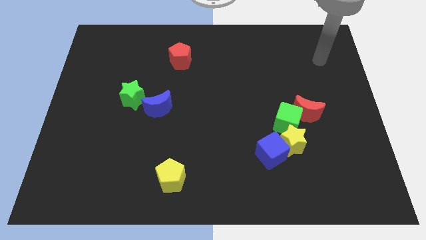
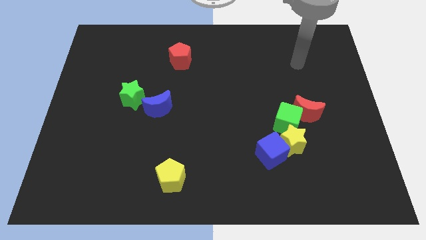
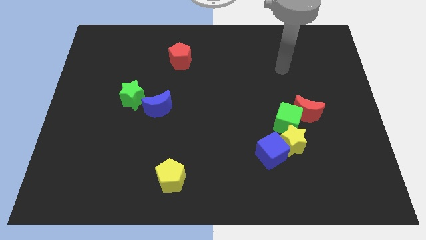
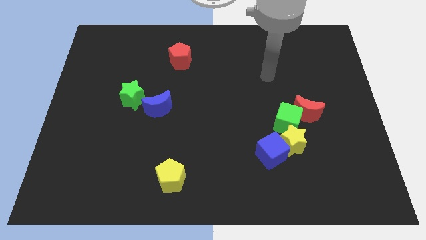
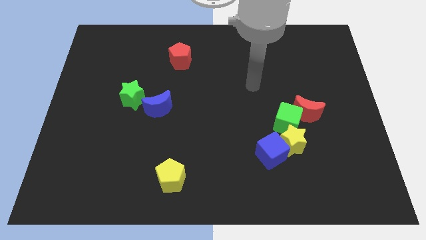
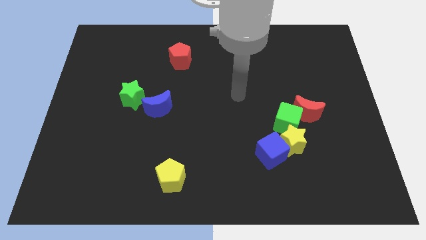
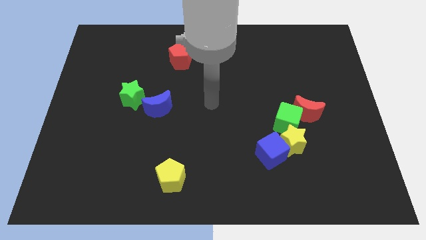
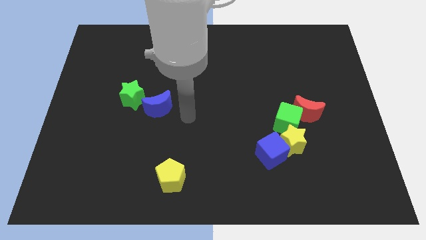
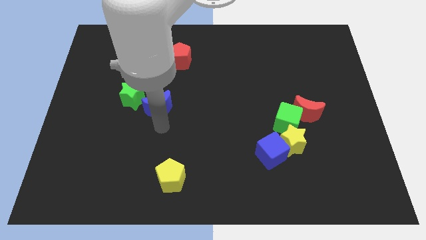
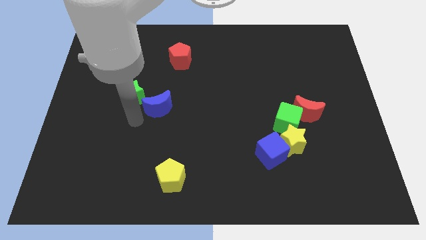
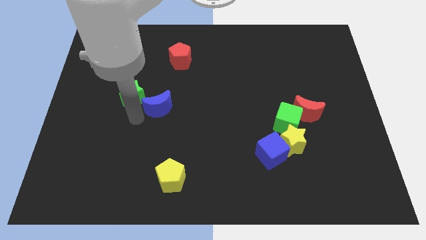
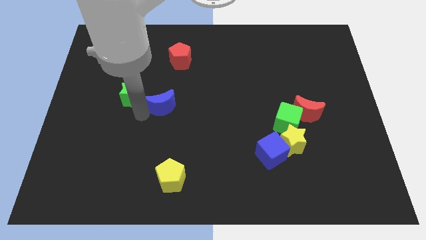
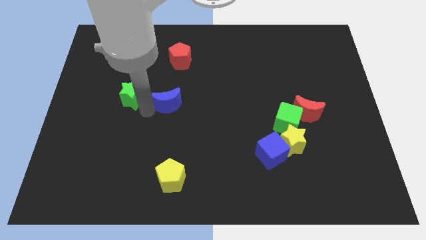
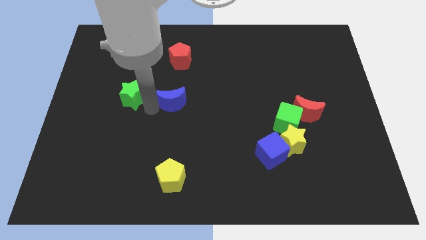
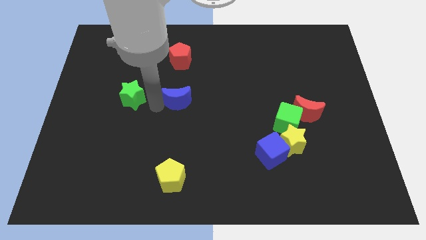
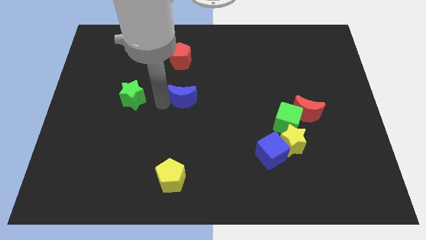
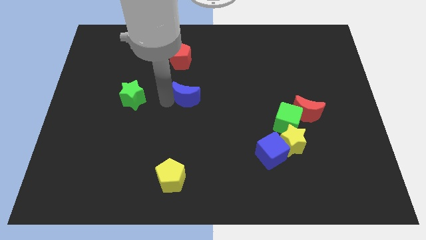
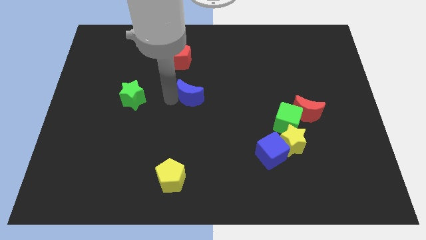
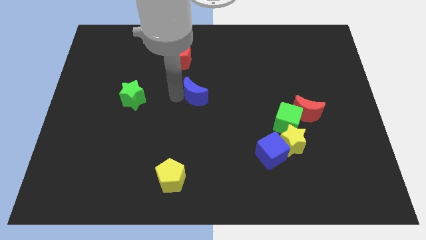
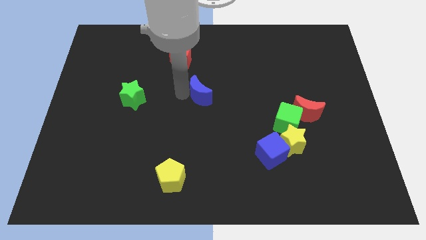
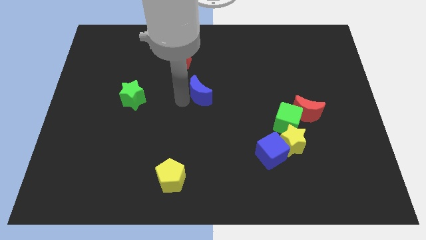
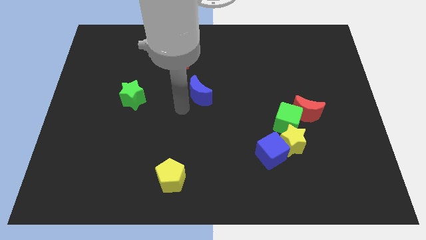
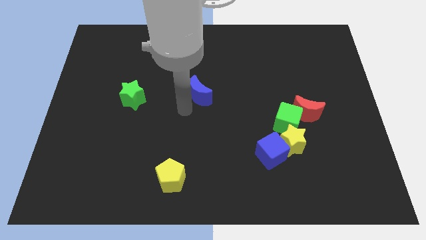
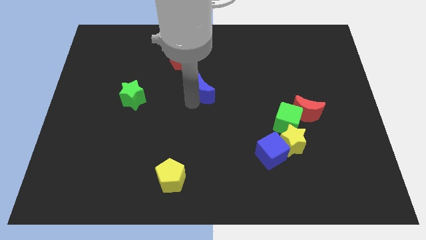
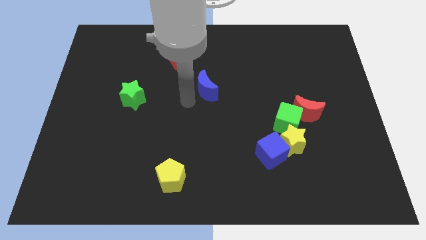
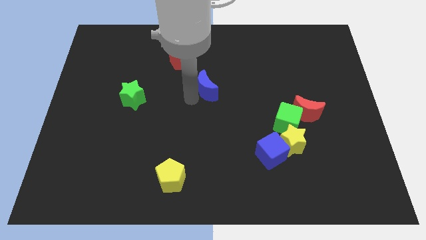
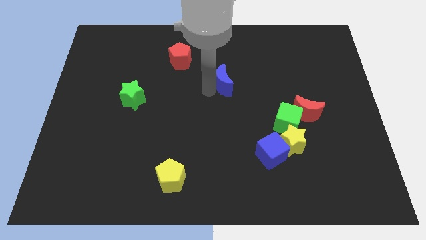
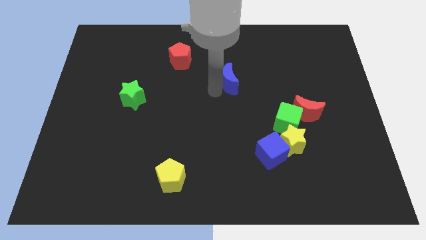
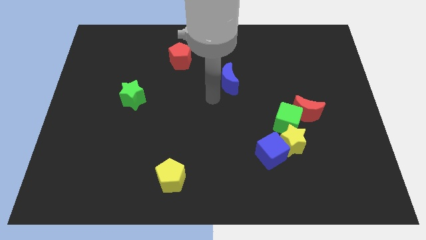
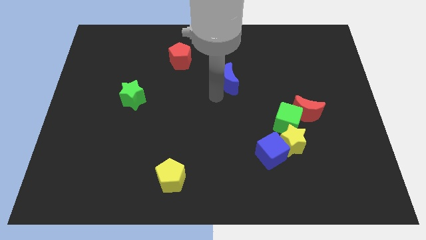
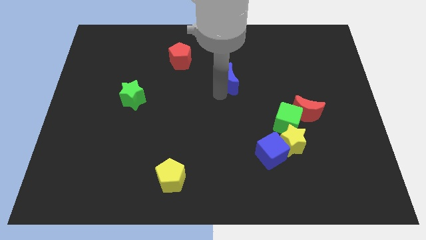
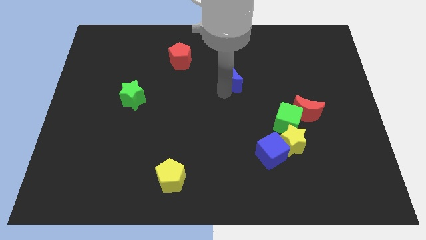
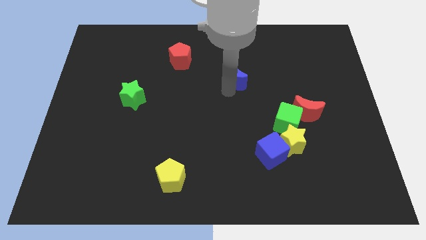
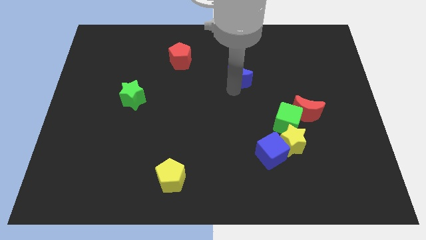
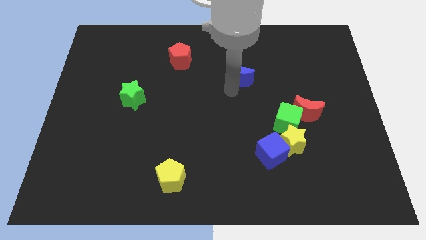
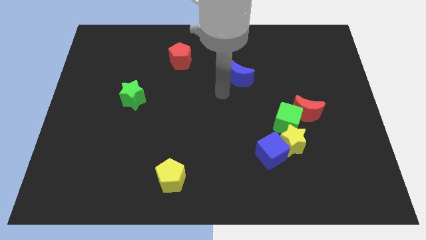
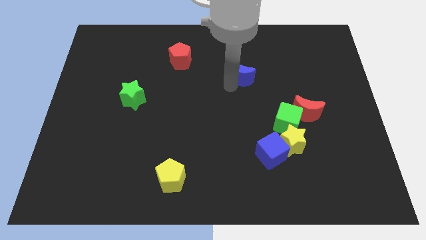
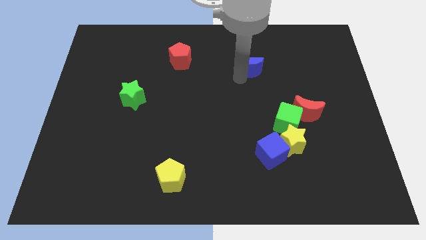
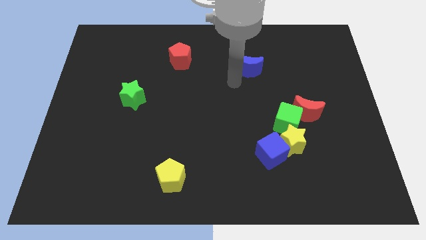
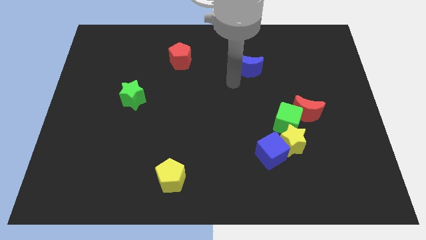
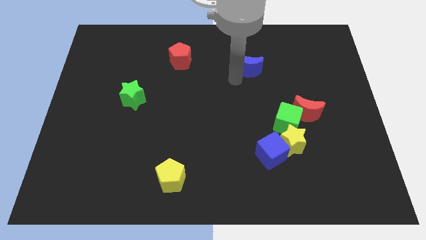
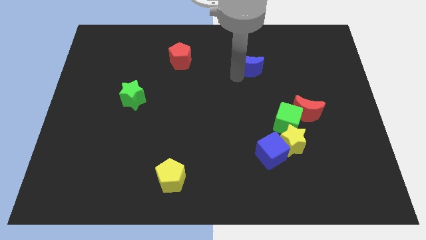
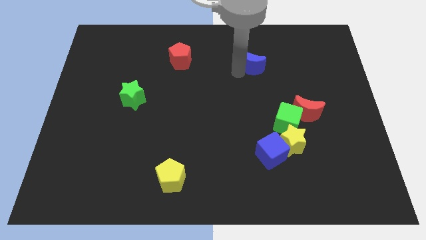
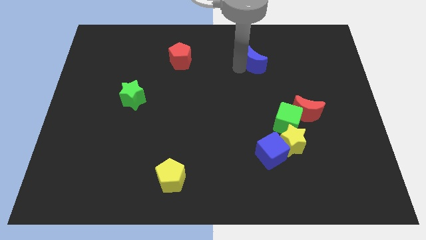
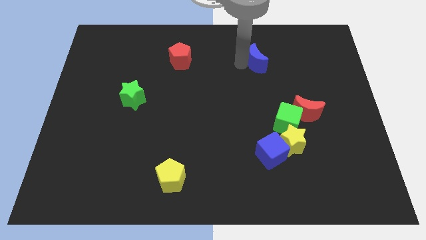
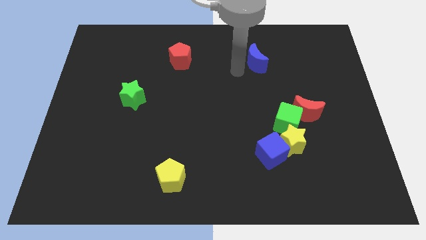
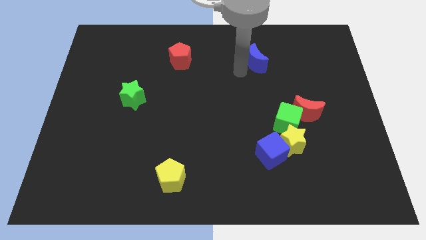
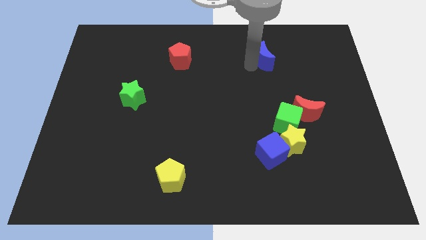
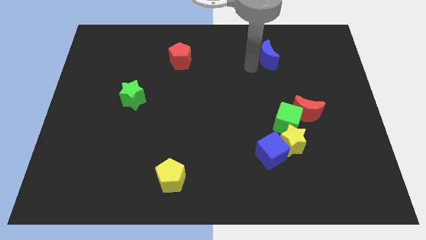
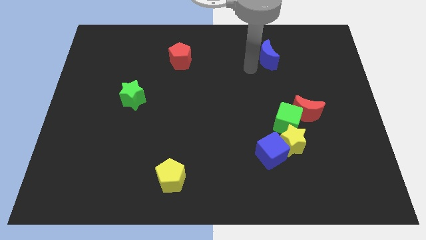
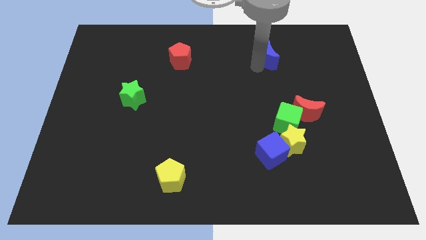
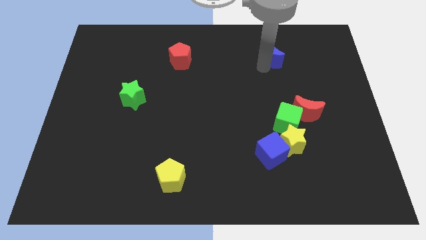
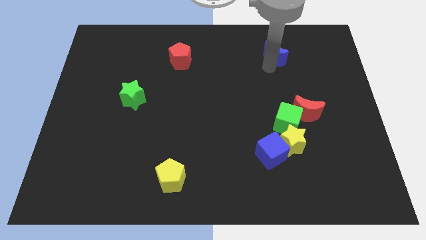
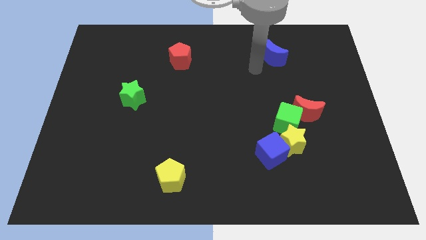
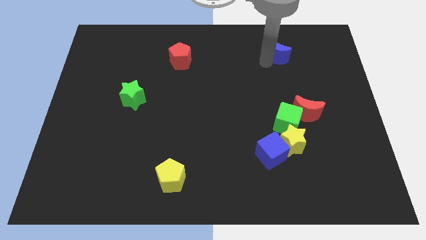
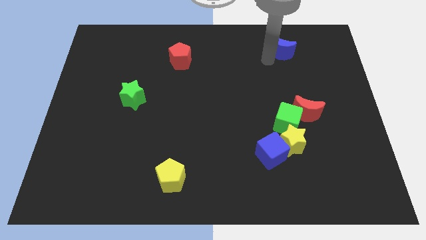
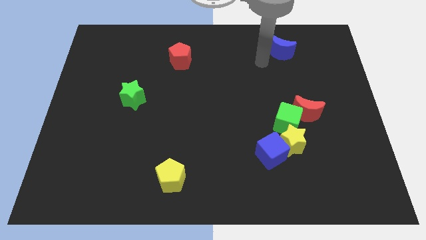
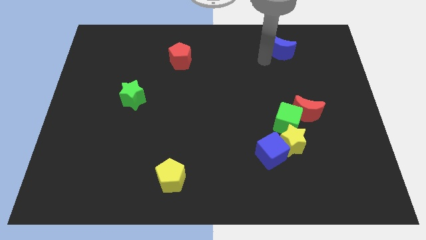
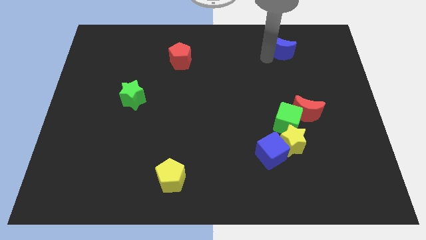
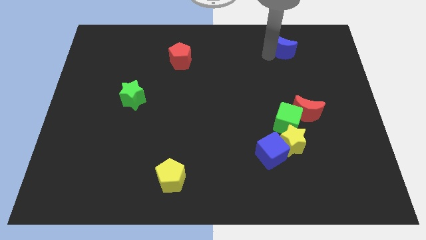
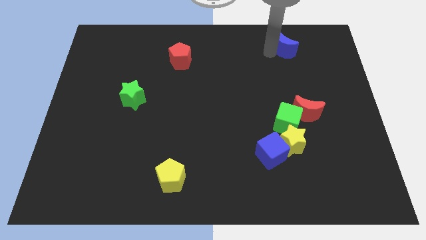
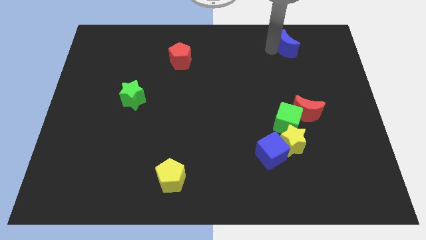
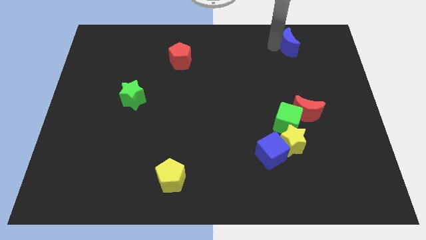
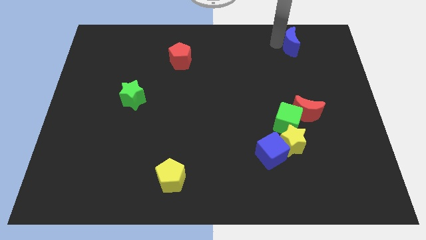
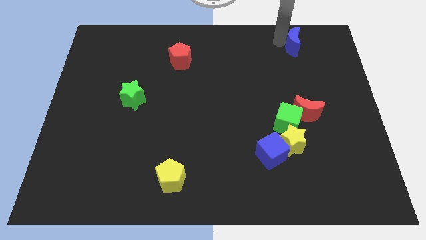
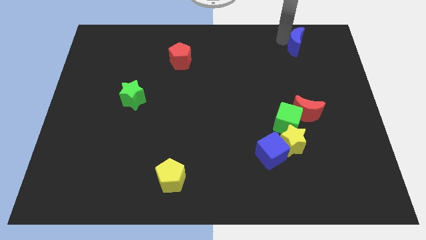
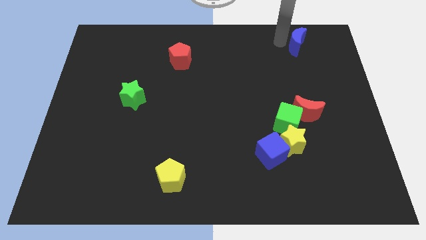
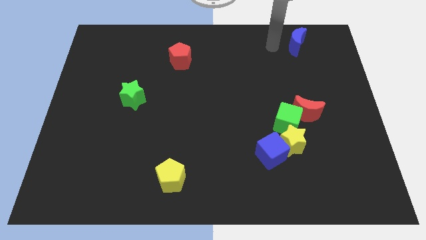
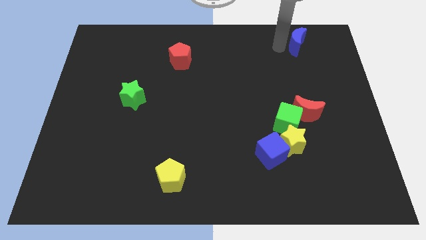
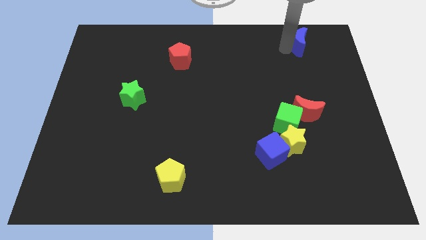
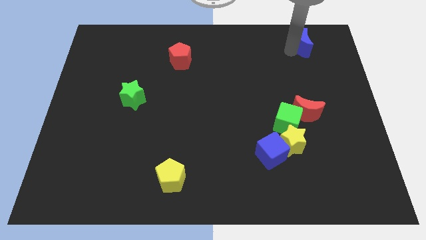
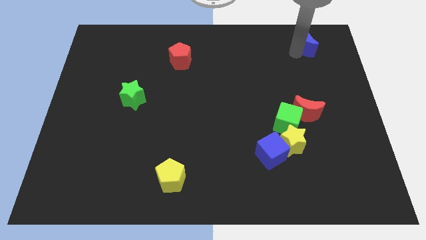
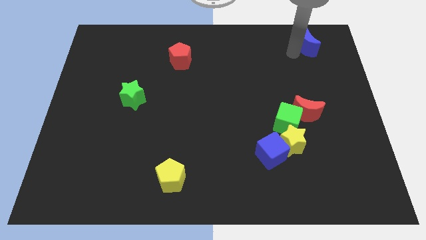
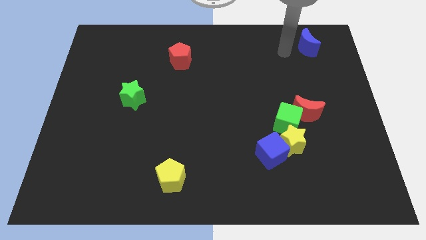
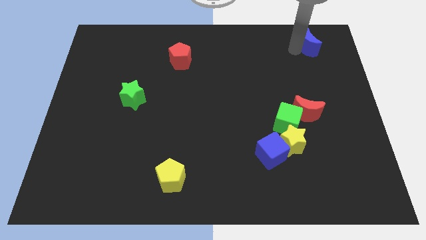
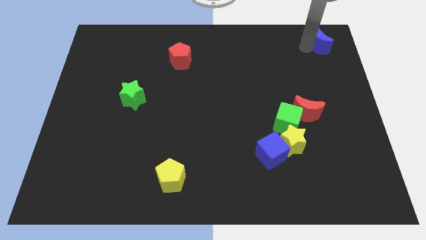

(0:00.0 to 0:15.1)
put the blue moon to the top right of the board
